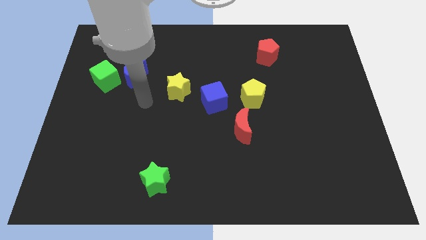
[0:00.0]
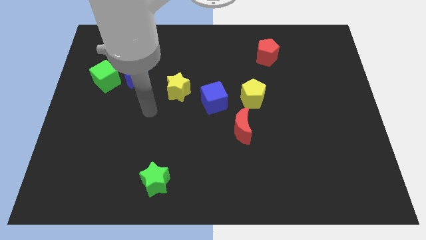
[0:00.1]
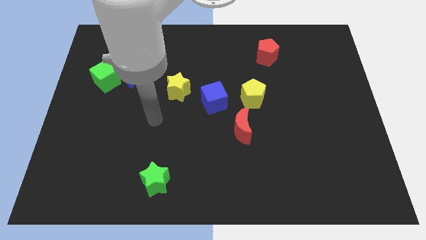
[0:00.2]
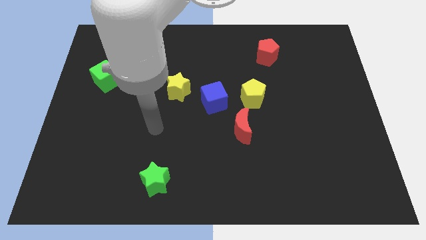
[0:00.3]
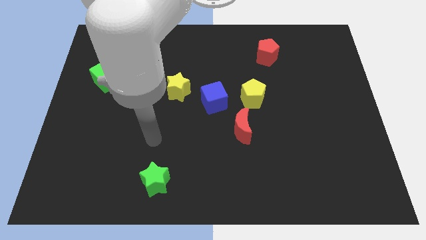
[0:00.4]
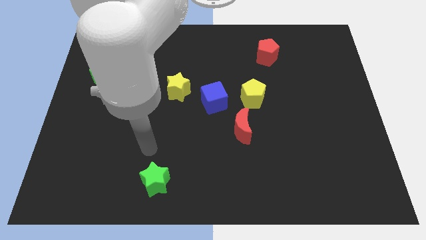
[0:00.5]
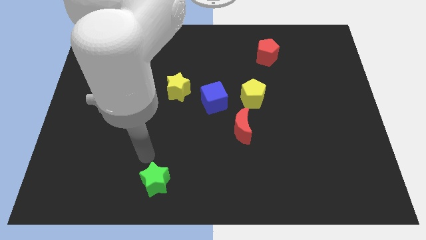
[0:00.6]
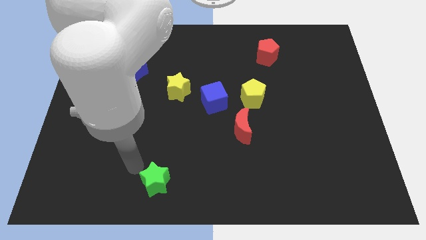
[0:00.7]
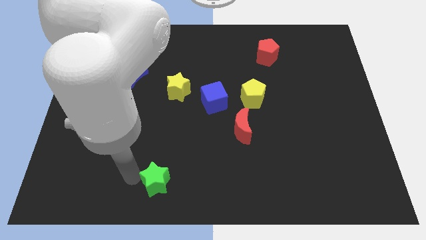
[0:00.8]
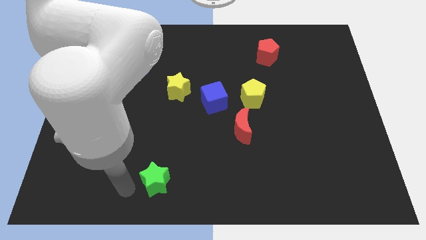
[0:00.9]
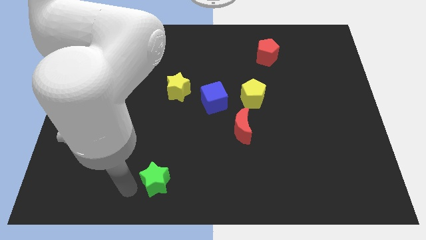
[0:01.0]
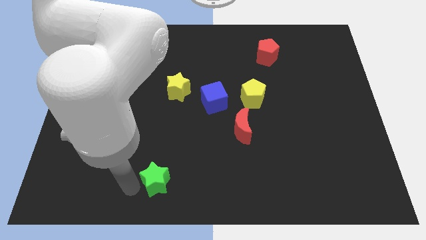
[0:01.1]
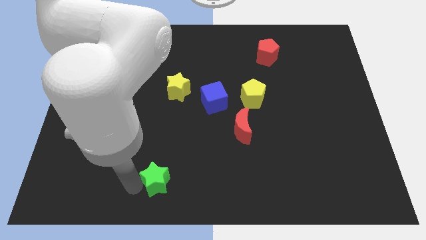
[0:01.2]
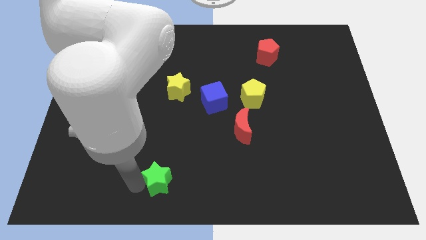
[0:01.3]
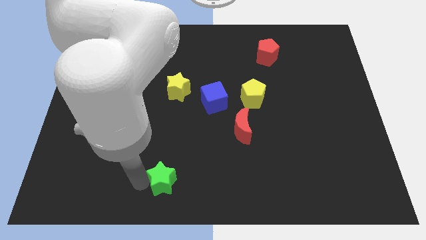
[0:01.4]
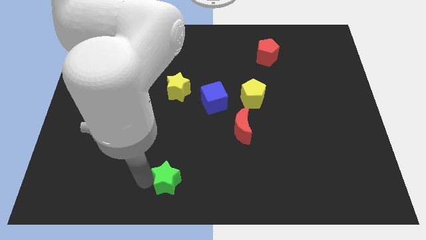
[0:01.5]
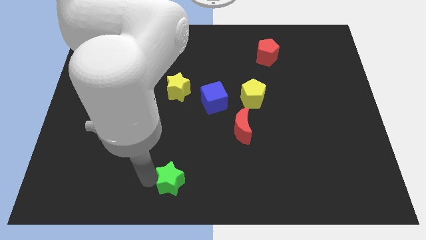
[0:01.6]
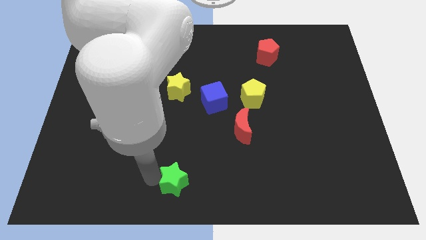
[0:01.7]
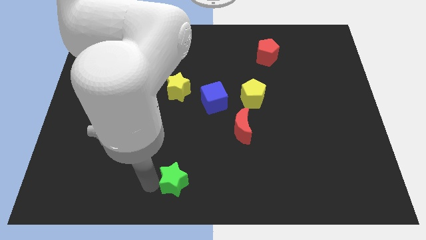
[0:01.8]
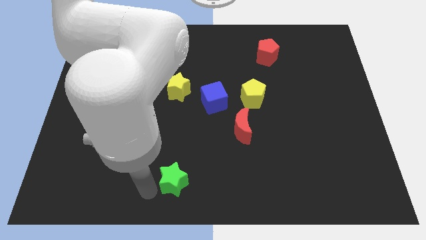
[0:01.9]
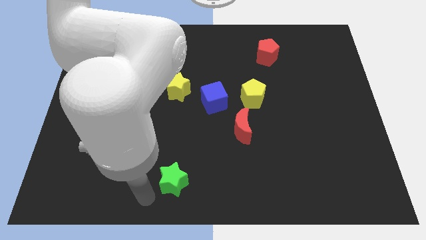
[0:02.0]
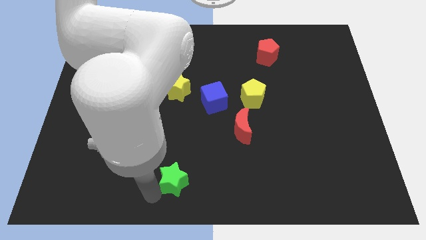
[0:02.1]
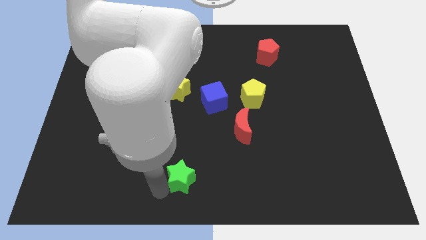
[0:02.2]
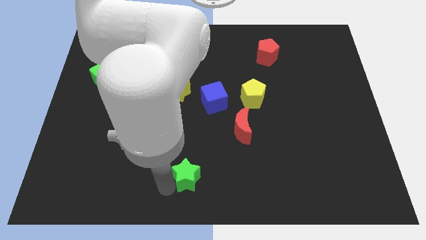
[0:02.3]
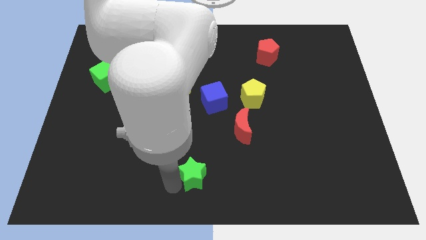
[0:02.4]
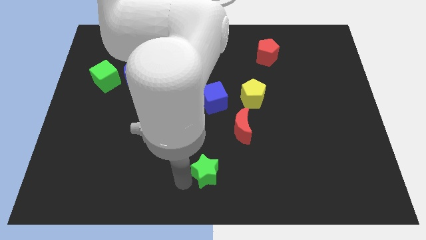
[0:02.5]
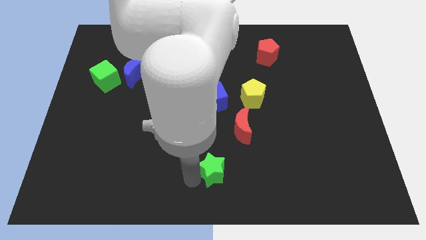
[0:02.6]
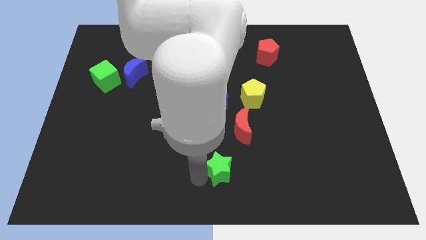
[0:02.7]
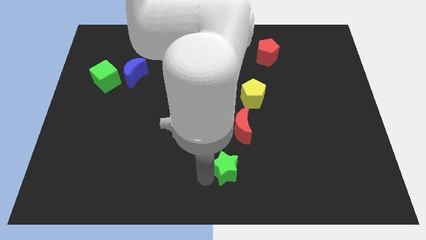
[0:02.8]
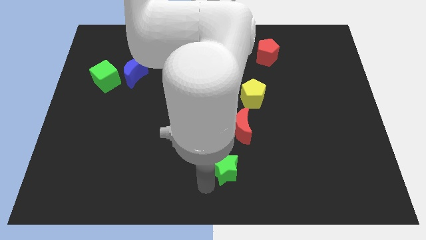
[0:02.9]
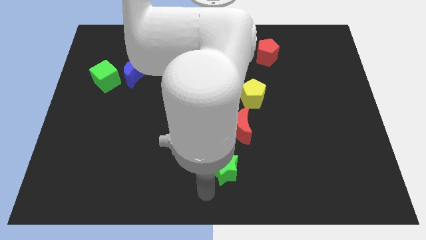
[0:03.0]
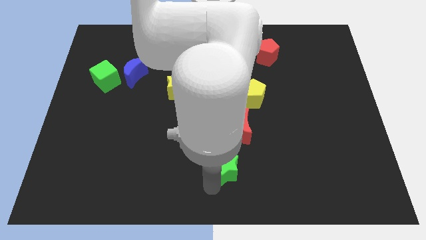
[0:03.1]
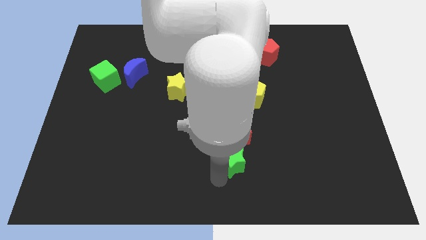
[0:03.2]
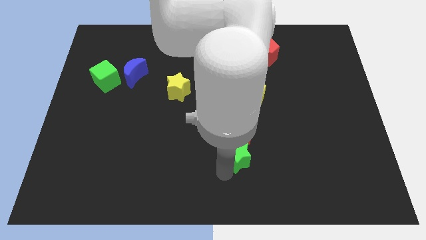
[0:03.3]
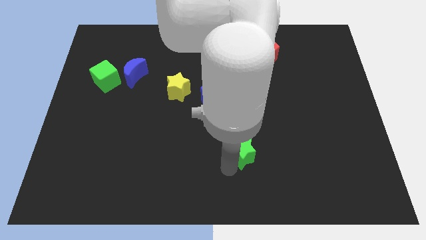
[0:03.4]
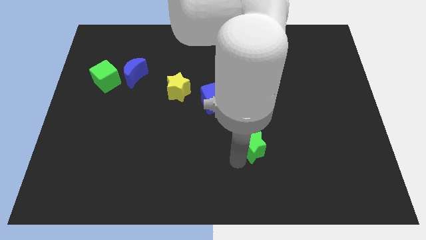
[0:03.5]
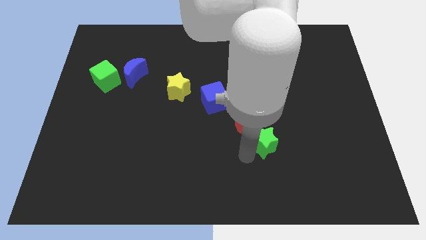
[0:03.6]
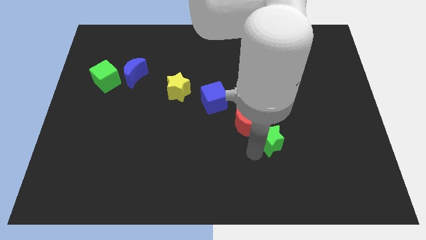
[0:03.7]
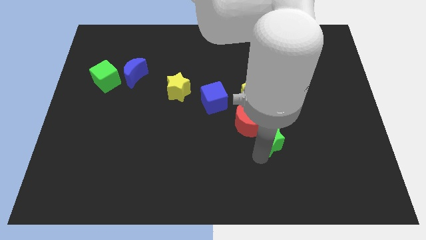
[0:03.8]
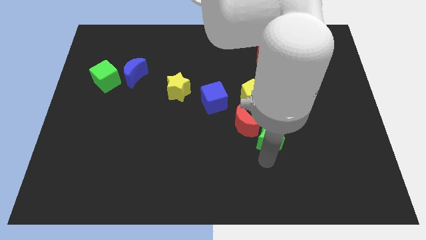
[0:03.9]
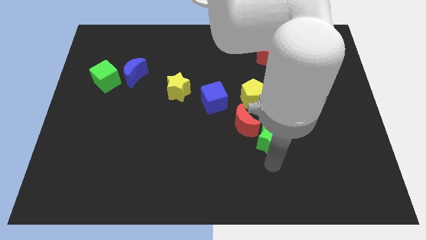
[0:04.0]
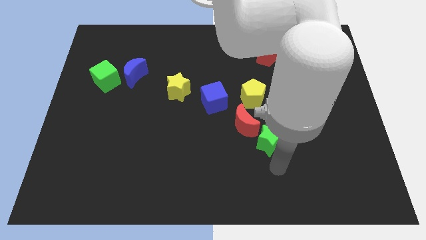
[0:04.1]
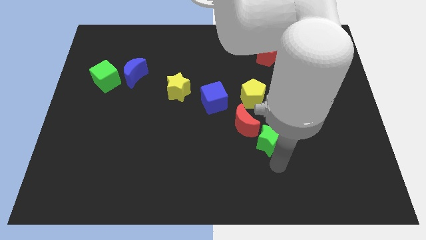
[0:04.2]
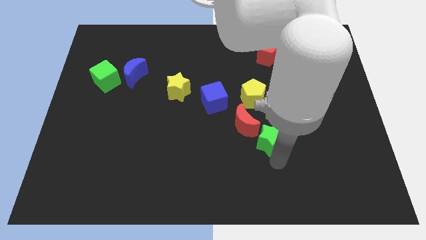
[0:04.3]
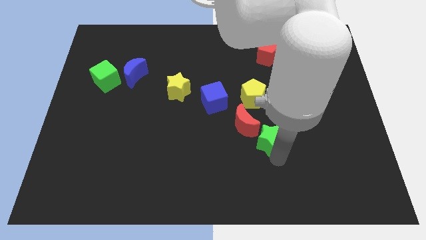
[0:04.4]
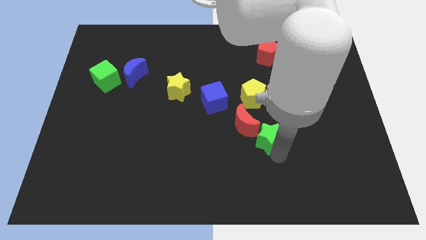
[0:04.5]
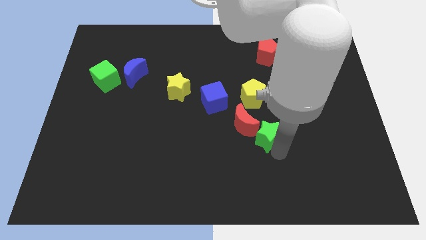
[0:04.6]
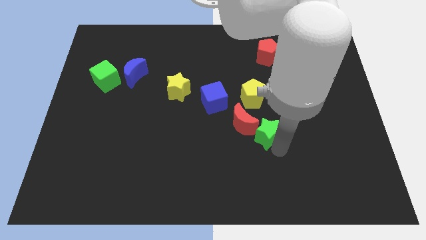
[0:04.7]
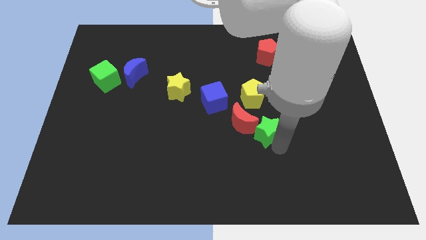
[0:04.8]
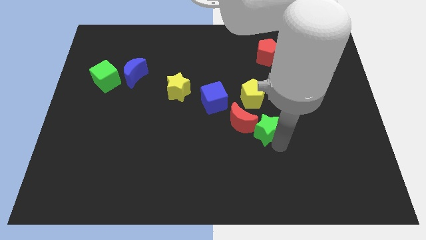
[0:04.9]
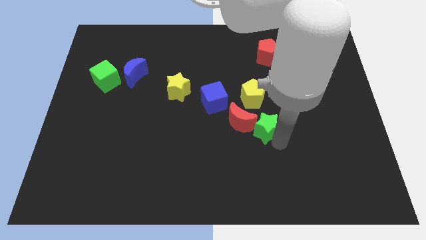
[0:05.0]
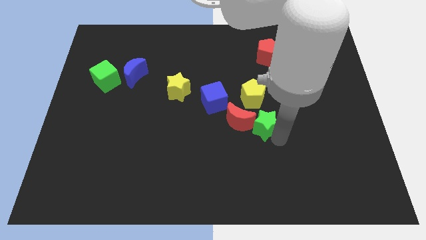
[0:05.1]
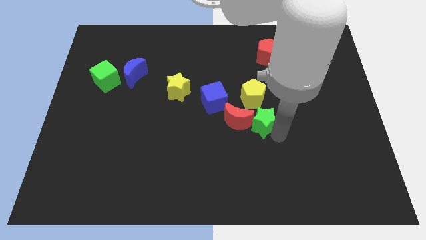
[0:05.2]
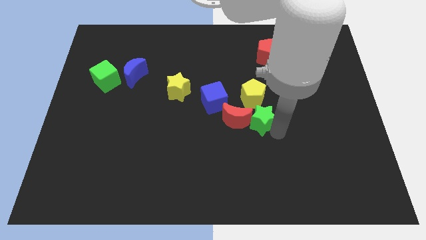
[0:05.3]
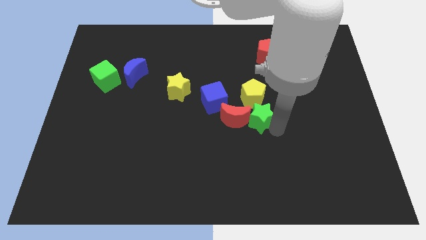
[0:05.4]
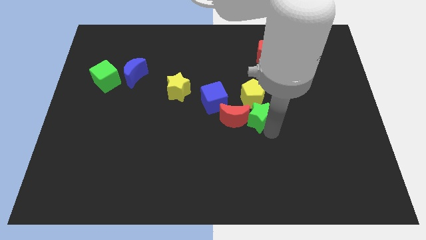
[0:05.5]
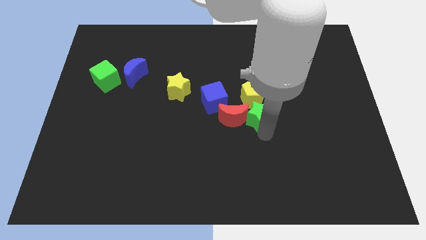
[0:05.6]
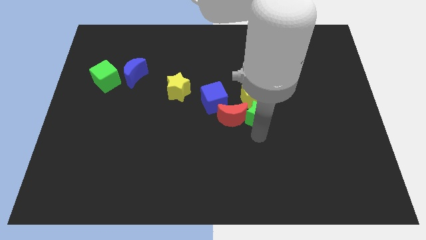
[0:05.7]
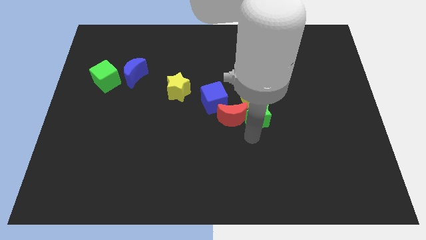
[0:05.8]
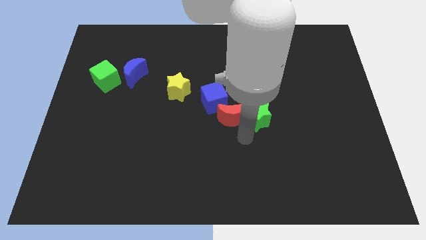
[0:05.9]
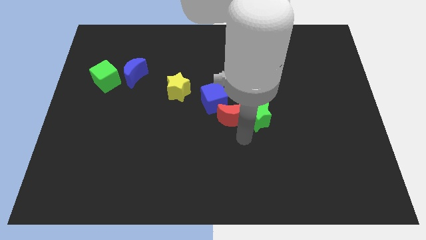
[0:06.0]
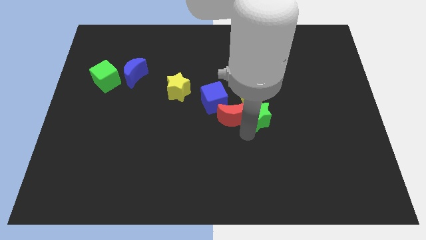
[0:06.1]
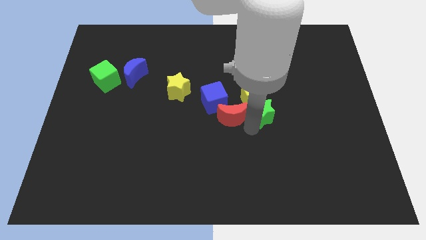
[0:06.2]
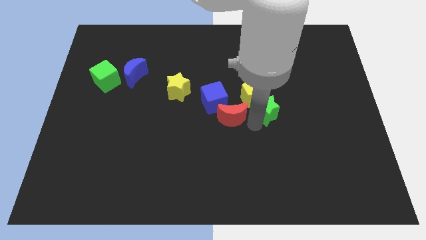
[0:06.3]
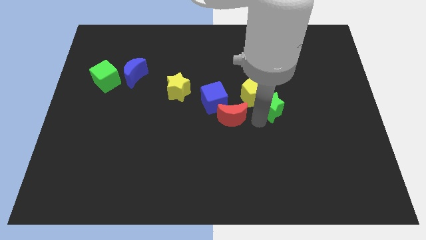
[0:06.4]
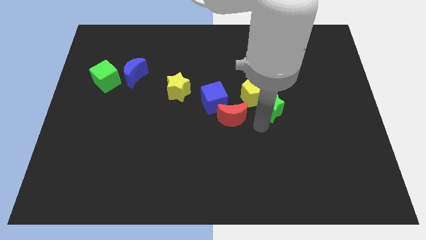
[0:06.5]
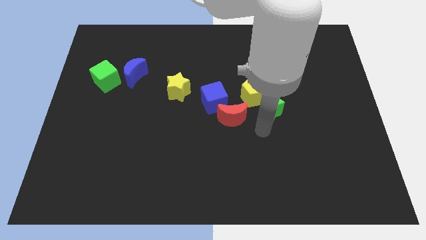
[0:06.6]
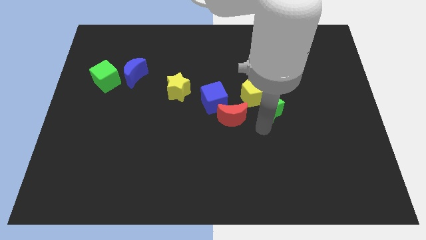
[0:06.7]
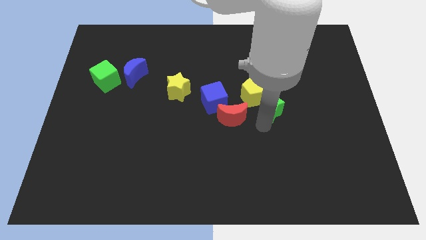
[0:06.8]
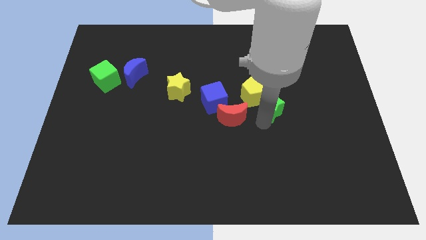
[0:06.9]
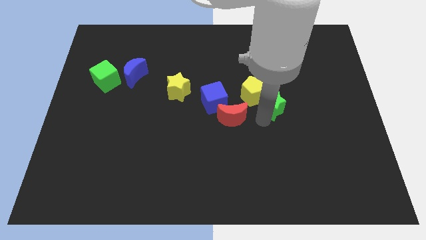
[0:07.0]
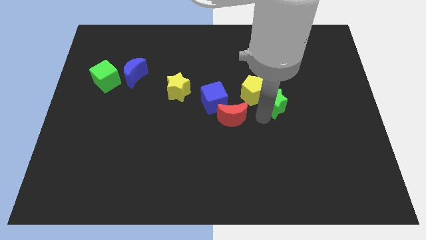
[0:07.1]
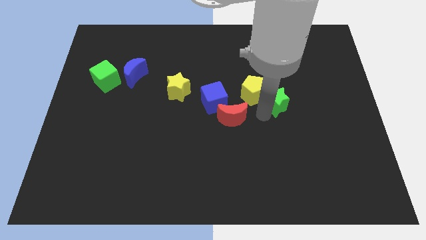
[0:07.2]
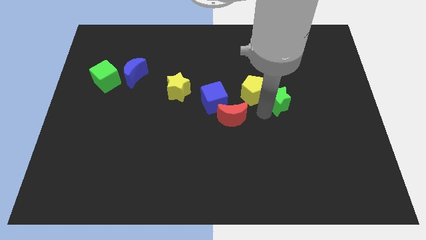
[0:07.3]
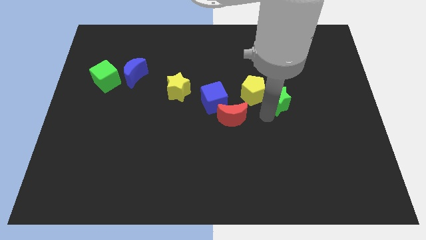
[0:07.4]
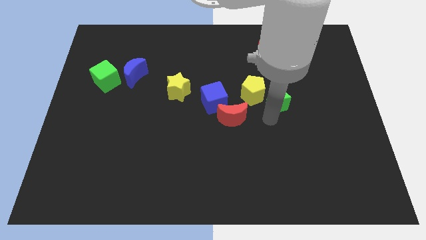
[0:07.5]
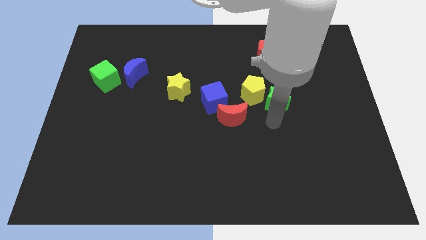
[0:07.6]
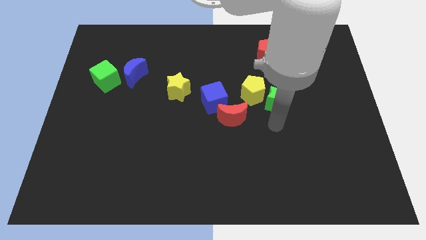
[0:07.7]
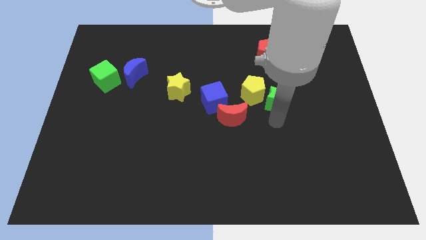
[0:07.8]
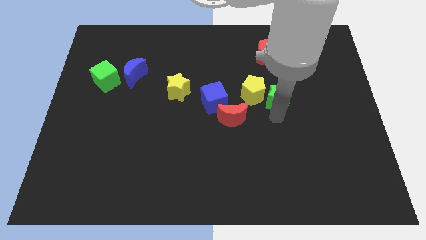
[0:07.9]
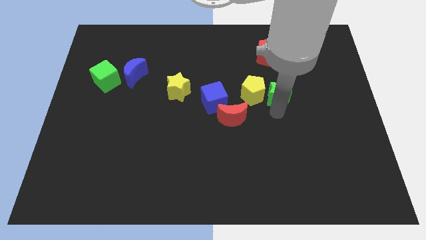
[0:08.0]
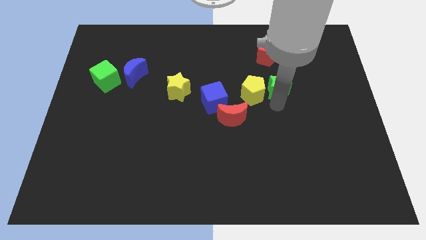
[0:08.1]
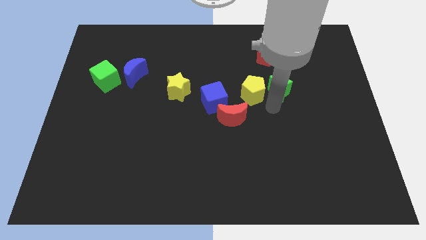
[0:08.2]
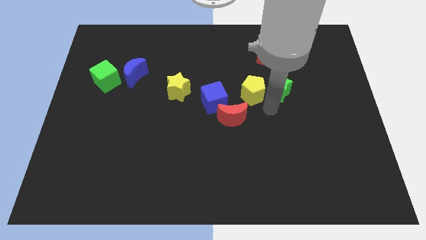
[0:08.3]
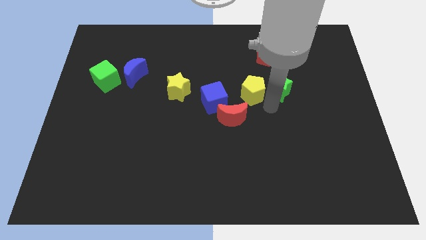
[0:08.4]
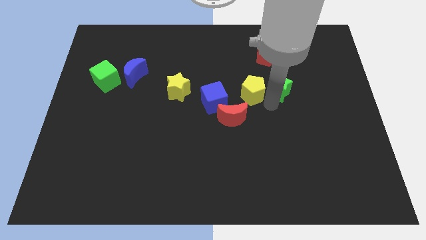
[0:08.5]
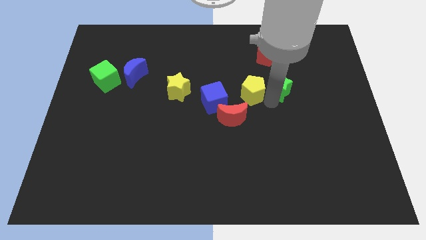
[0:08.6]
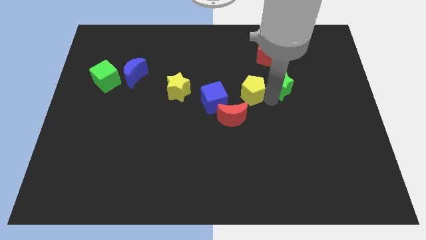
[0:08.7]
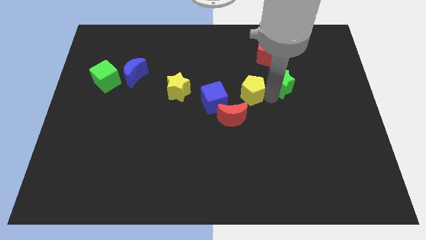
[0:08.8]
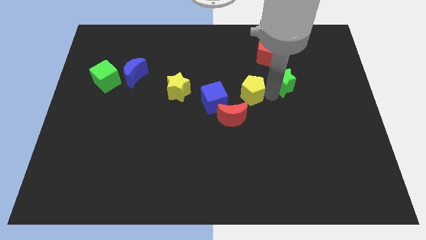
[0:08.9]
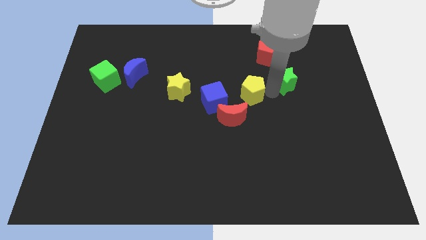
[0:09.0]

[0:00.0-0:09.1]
put the green star diagonally down and to the right of the red pentagon
